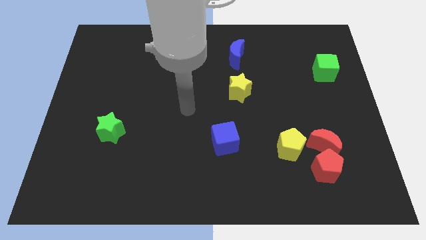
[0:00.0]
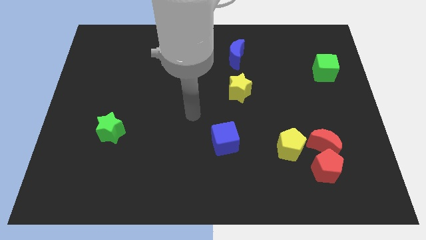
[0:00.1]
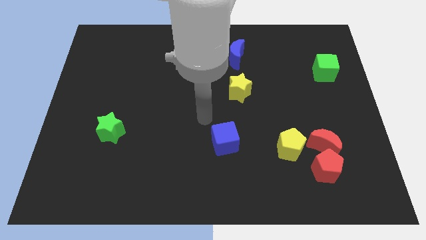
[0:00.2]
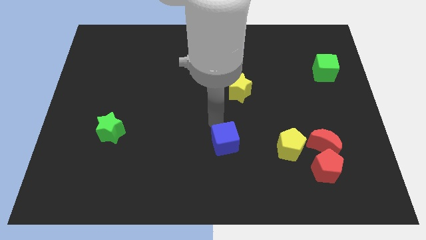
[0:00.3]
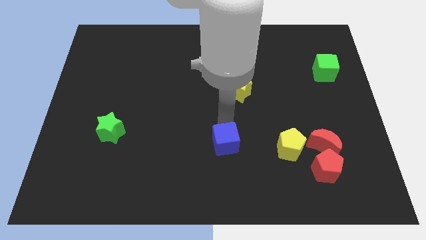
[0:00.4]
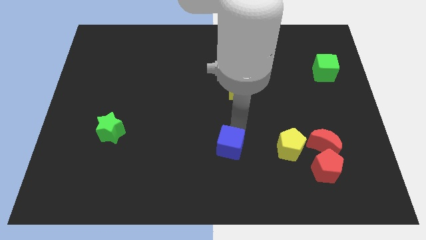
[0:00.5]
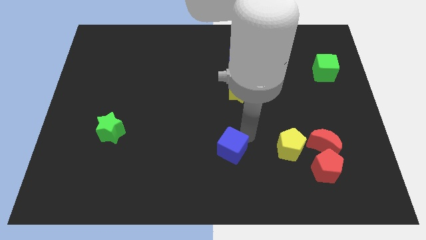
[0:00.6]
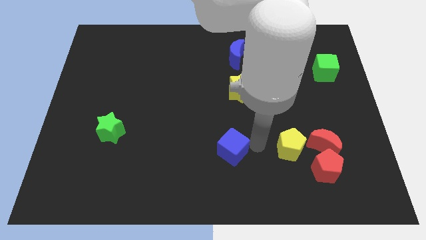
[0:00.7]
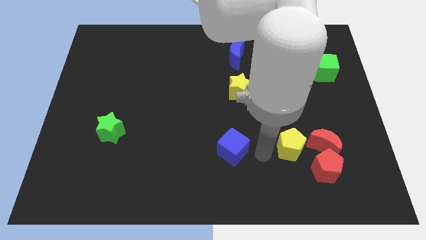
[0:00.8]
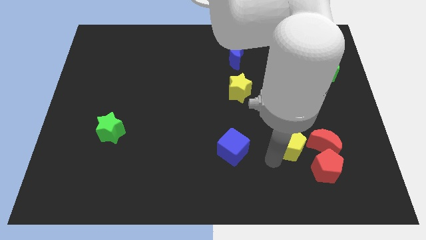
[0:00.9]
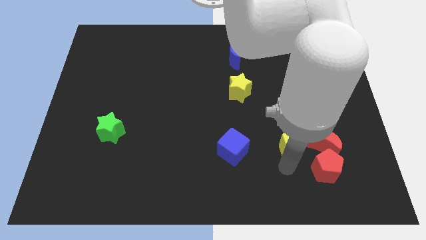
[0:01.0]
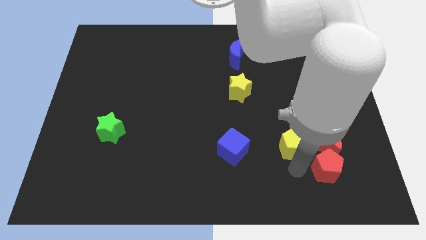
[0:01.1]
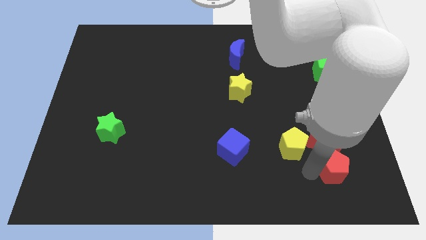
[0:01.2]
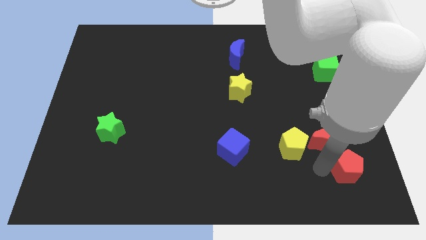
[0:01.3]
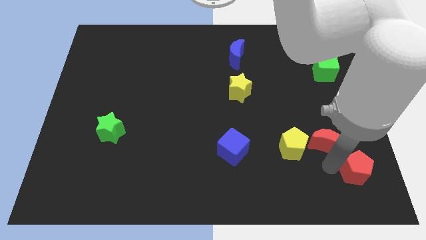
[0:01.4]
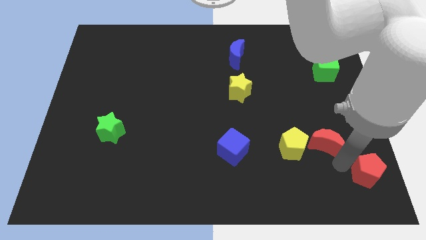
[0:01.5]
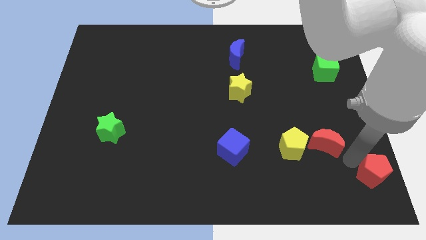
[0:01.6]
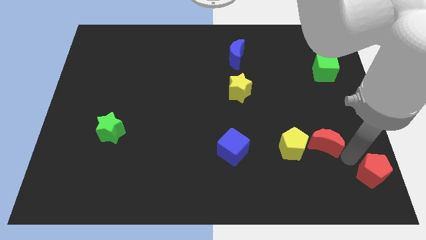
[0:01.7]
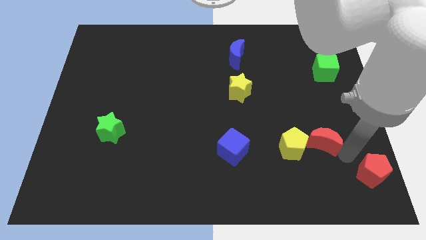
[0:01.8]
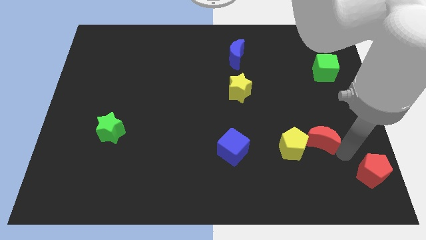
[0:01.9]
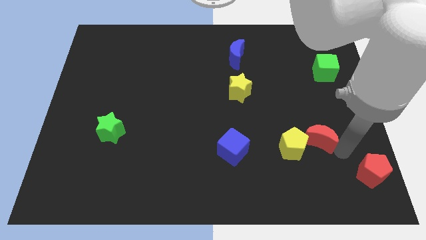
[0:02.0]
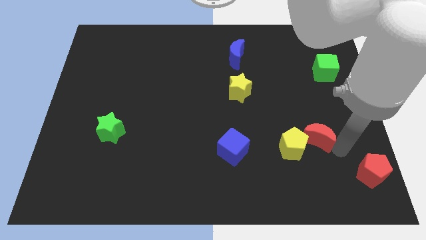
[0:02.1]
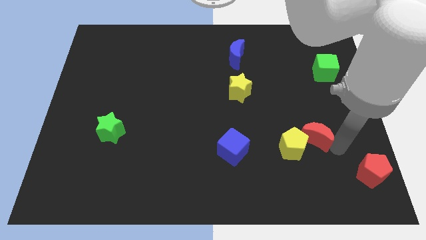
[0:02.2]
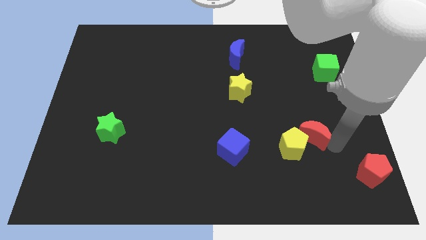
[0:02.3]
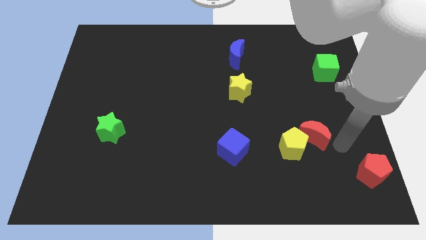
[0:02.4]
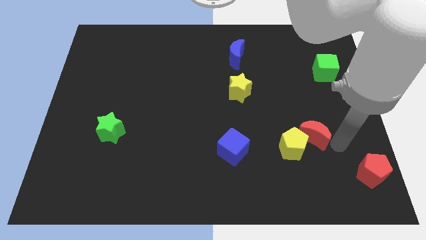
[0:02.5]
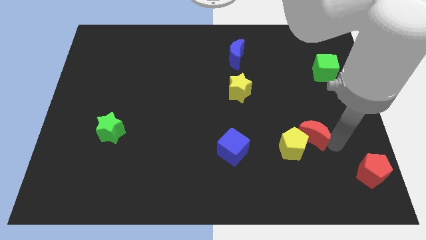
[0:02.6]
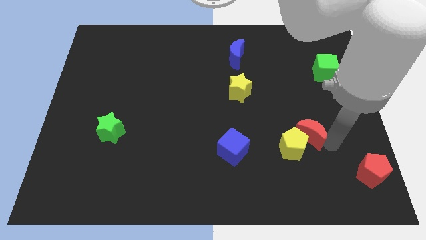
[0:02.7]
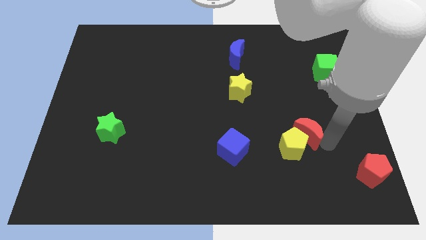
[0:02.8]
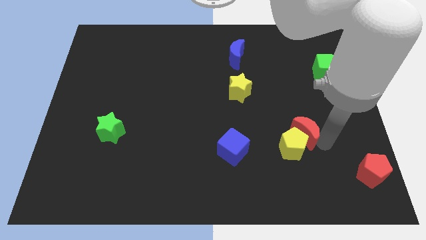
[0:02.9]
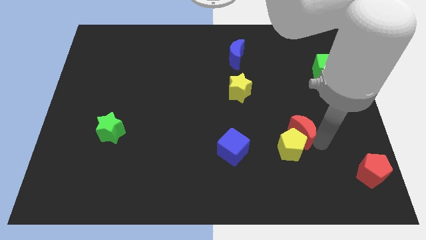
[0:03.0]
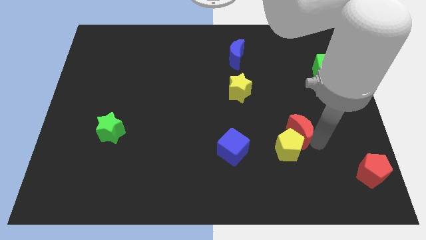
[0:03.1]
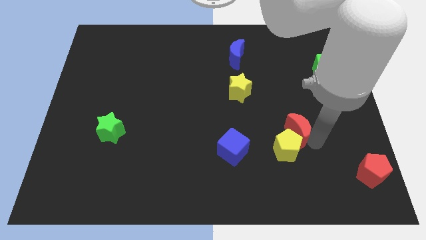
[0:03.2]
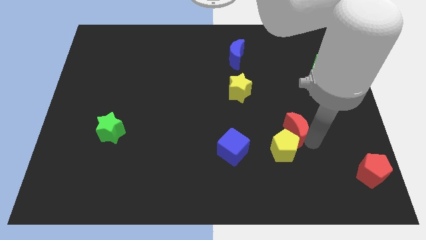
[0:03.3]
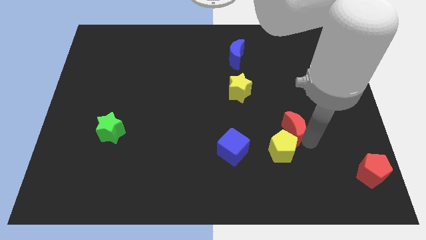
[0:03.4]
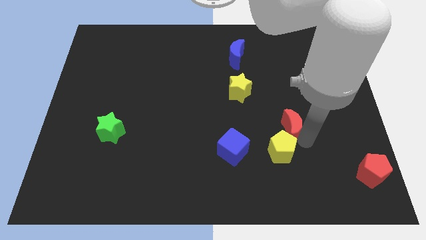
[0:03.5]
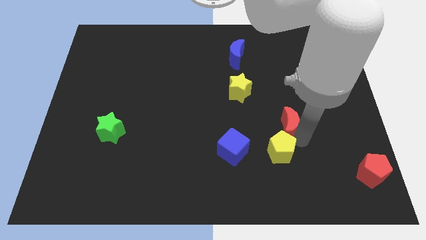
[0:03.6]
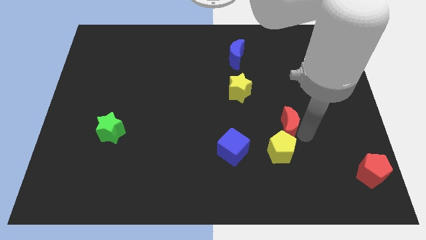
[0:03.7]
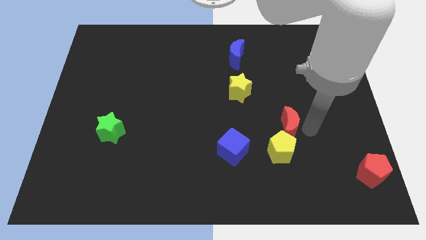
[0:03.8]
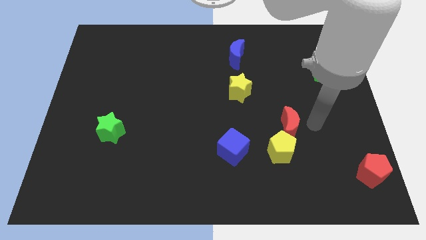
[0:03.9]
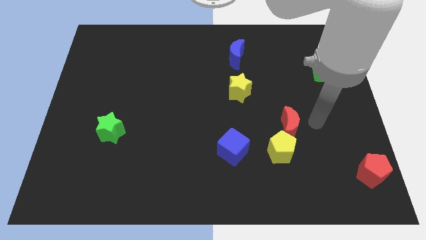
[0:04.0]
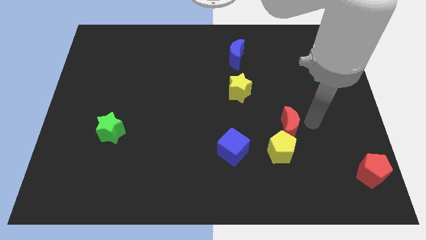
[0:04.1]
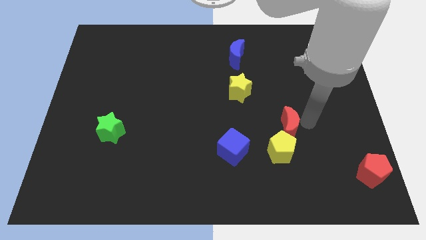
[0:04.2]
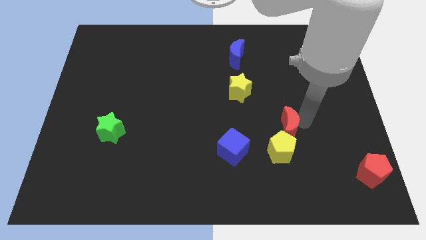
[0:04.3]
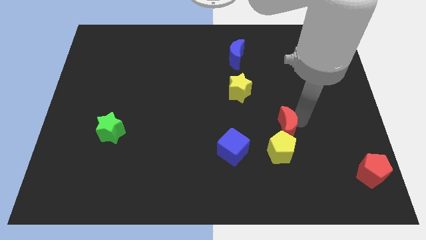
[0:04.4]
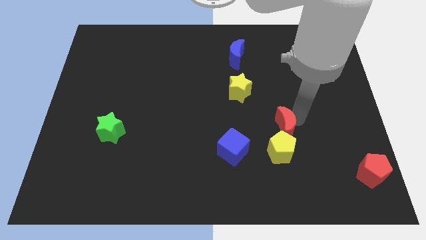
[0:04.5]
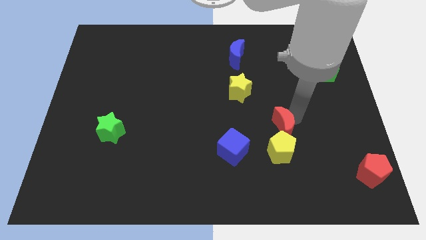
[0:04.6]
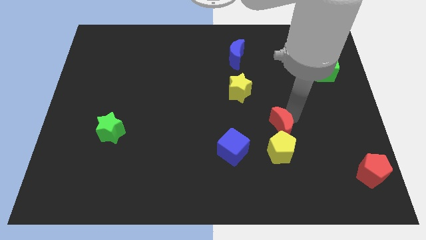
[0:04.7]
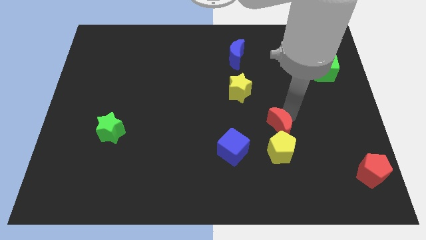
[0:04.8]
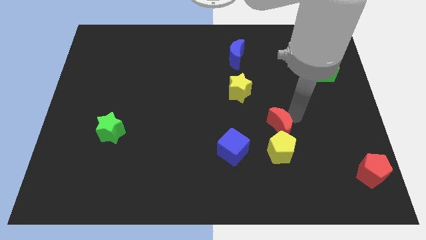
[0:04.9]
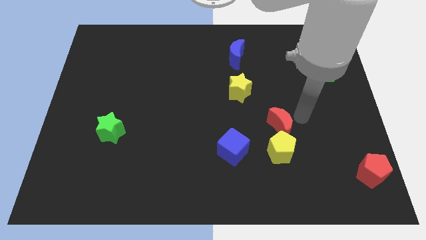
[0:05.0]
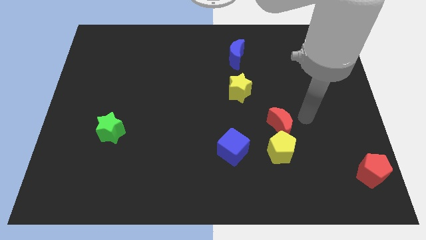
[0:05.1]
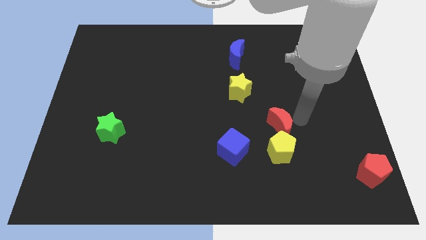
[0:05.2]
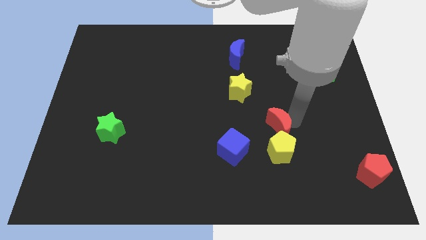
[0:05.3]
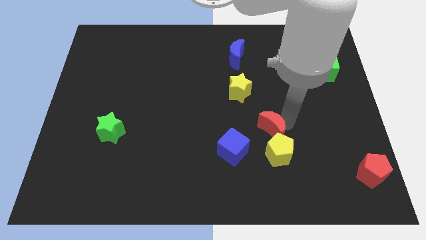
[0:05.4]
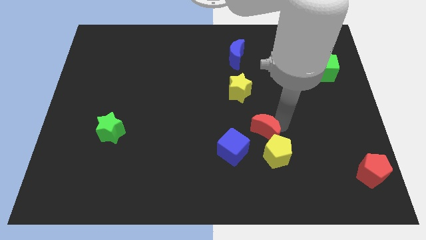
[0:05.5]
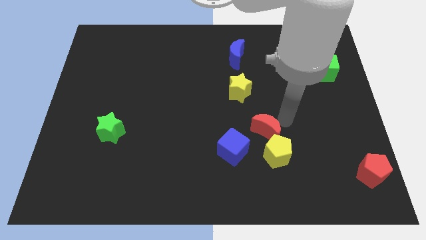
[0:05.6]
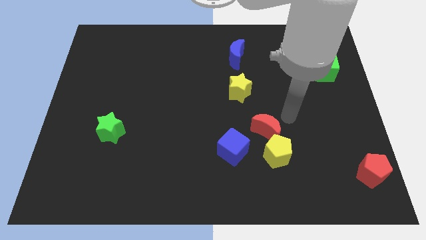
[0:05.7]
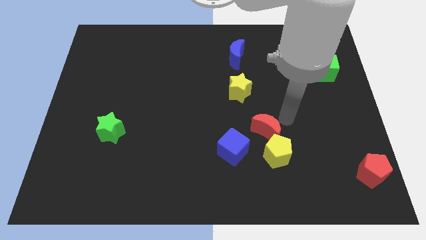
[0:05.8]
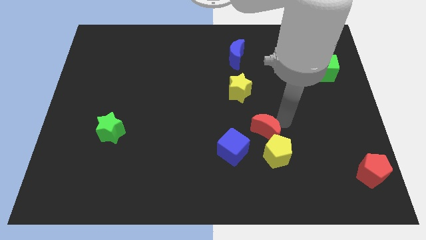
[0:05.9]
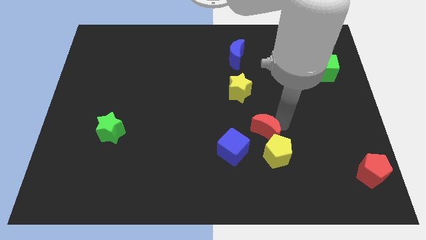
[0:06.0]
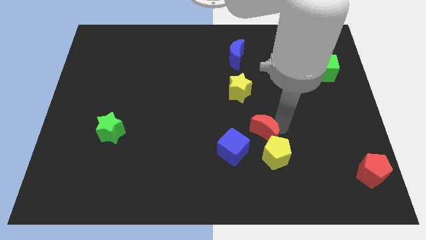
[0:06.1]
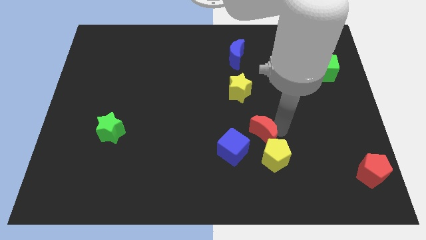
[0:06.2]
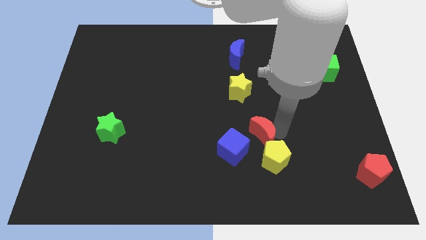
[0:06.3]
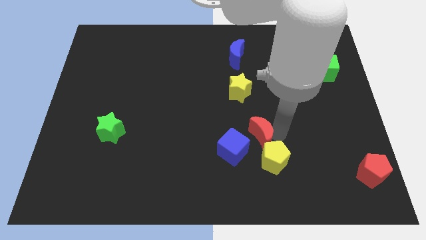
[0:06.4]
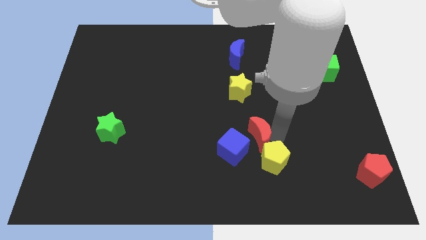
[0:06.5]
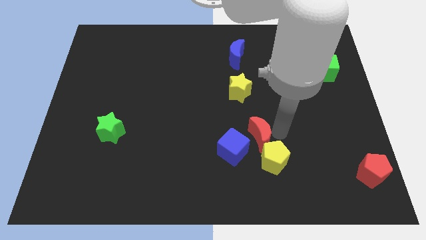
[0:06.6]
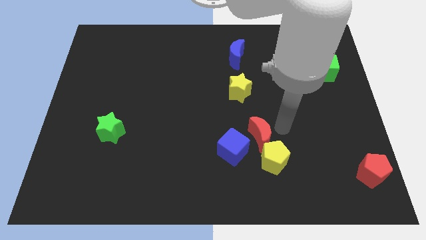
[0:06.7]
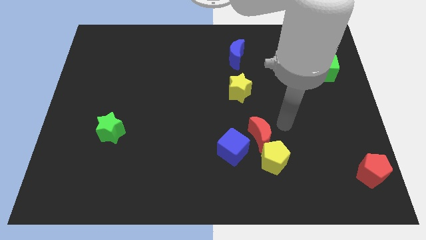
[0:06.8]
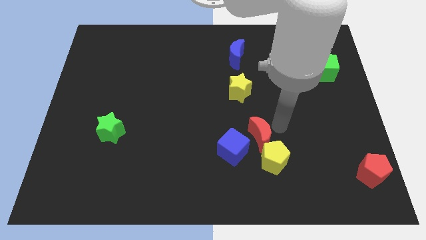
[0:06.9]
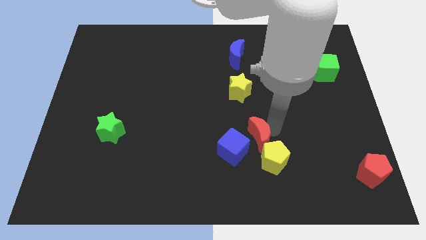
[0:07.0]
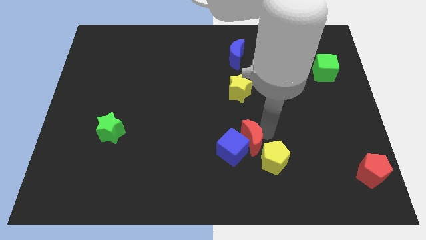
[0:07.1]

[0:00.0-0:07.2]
put the red moon towards the blue cube

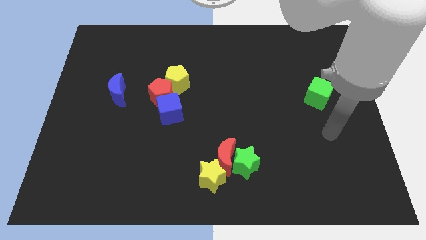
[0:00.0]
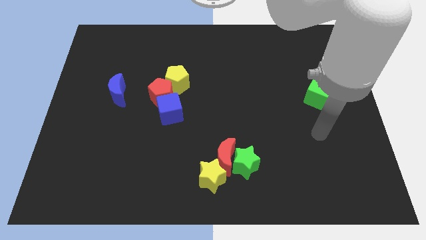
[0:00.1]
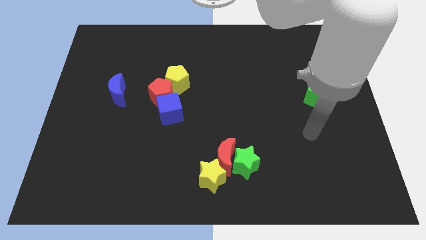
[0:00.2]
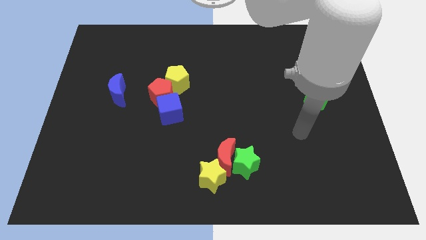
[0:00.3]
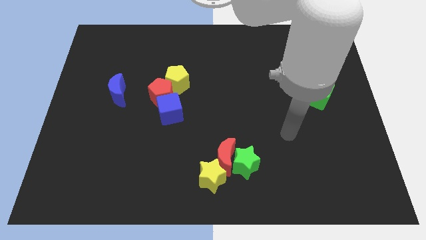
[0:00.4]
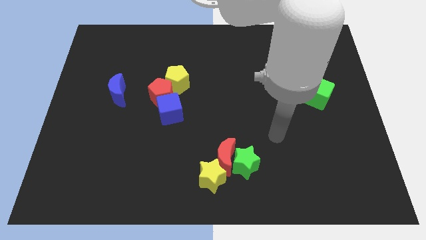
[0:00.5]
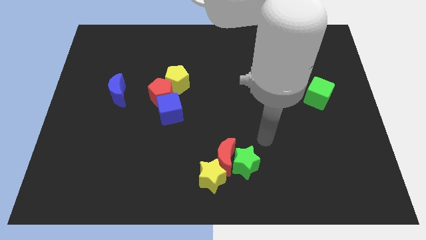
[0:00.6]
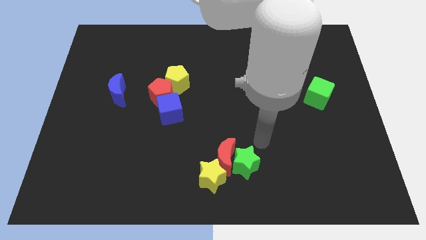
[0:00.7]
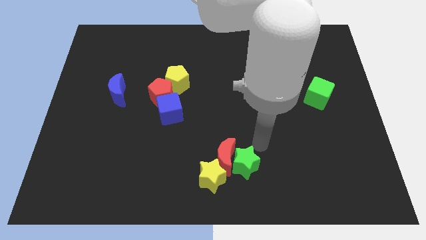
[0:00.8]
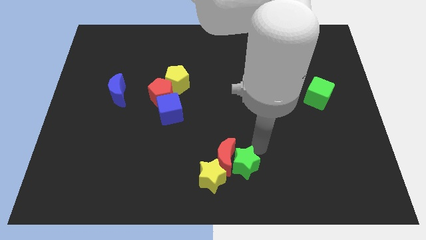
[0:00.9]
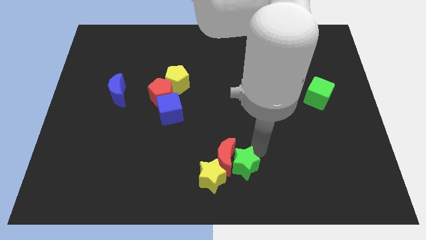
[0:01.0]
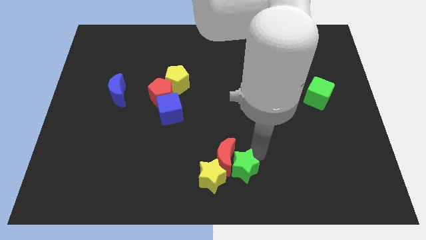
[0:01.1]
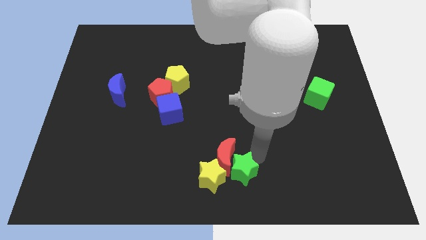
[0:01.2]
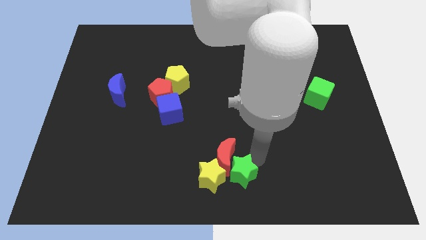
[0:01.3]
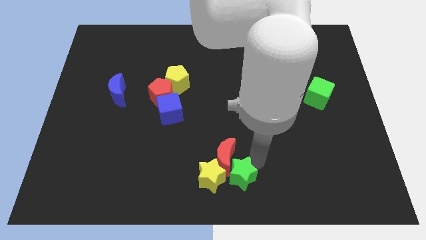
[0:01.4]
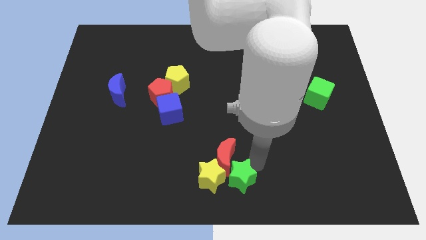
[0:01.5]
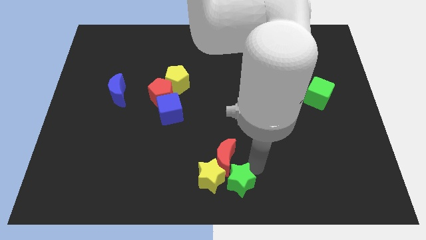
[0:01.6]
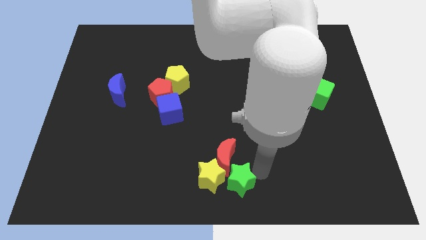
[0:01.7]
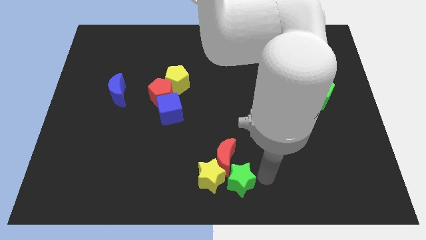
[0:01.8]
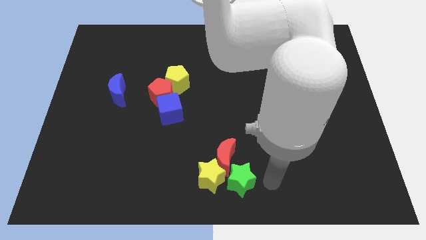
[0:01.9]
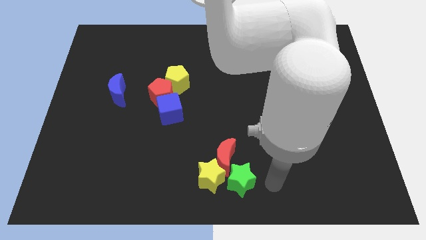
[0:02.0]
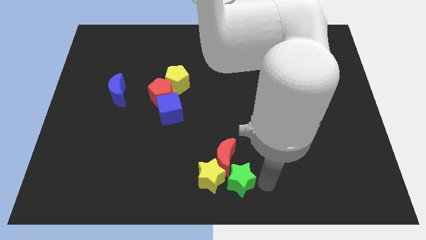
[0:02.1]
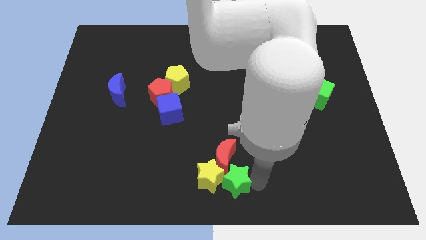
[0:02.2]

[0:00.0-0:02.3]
slide the green star to the yellow star
